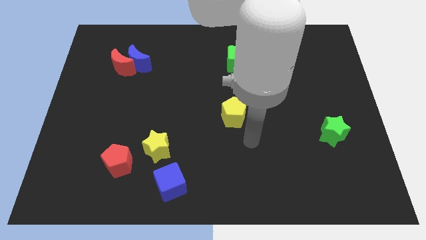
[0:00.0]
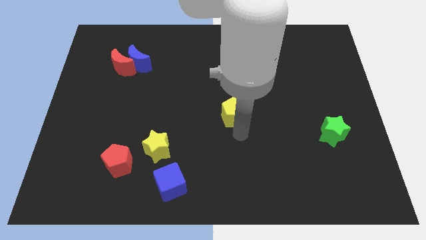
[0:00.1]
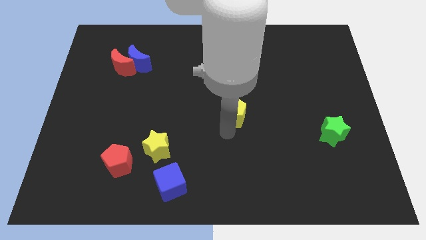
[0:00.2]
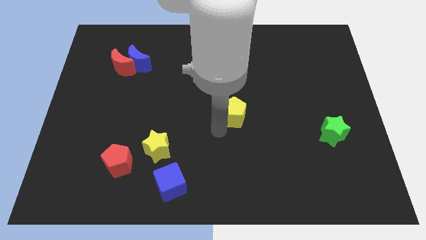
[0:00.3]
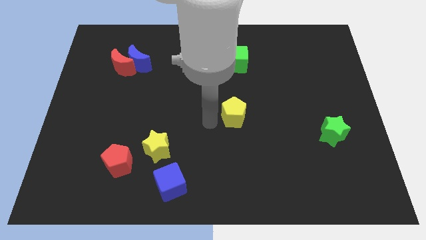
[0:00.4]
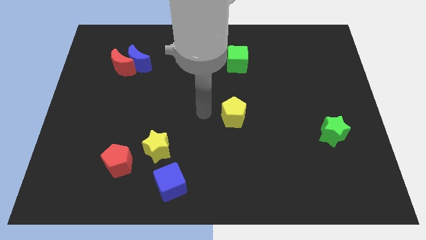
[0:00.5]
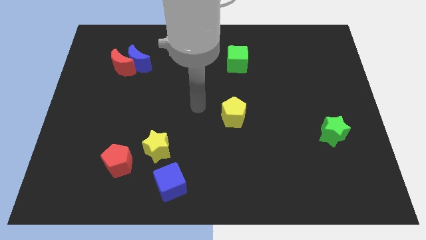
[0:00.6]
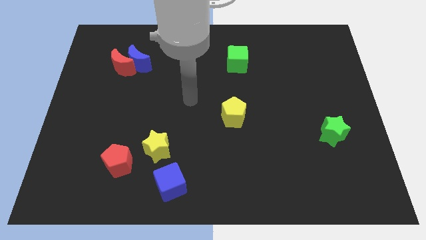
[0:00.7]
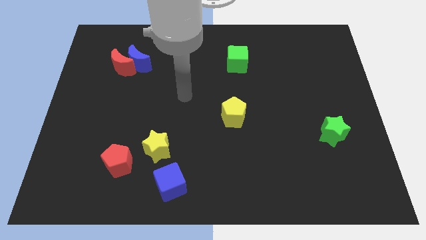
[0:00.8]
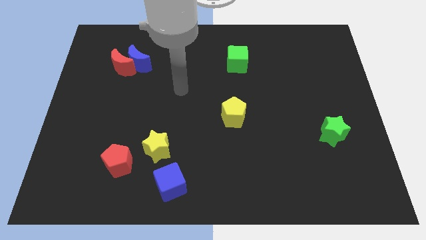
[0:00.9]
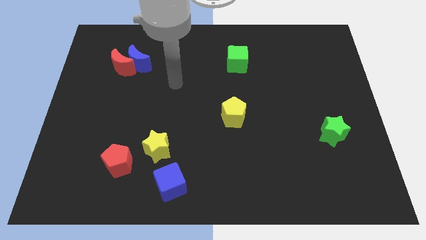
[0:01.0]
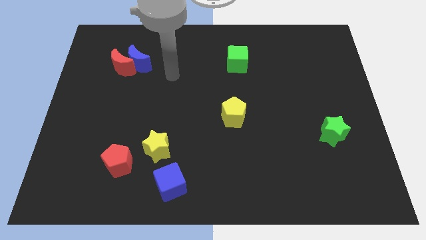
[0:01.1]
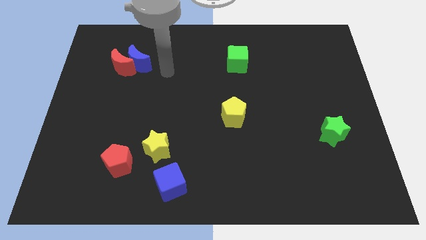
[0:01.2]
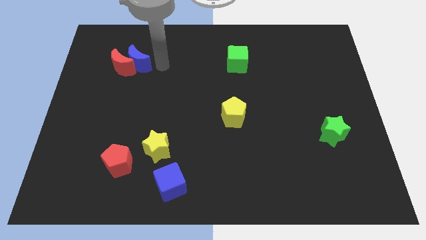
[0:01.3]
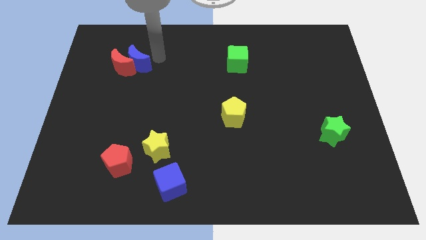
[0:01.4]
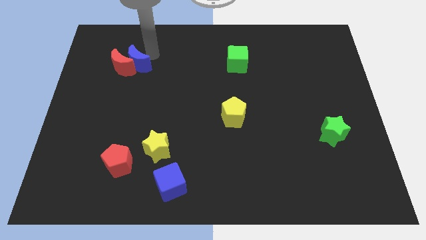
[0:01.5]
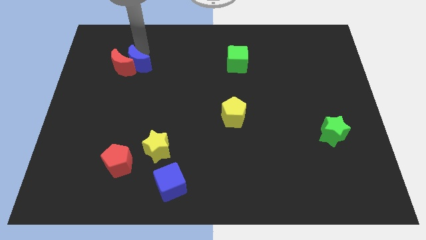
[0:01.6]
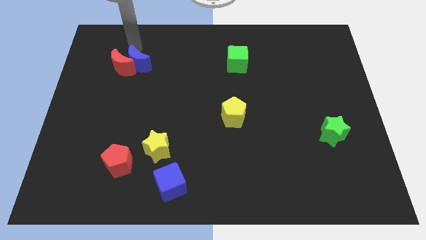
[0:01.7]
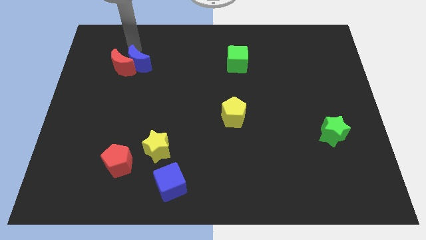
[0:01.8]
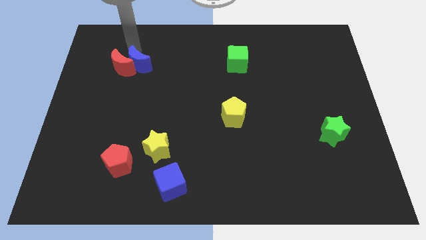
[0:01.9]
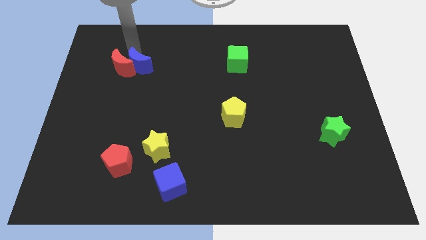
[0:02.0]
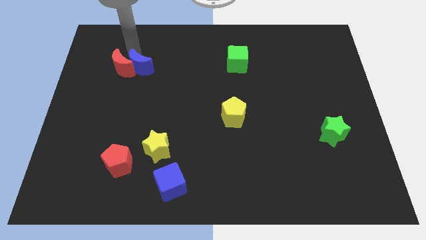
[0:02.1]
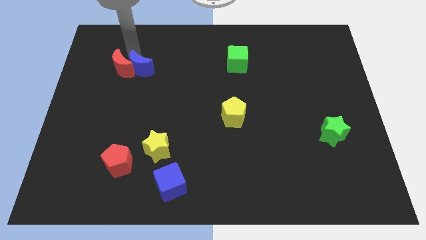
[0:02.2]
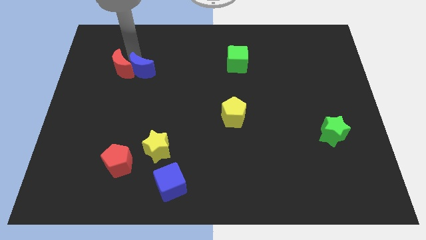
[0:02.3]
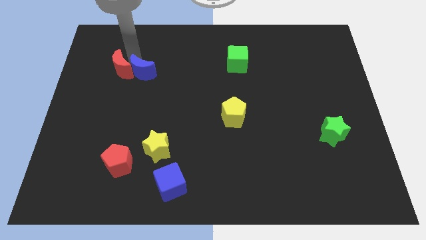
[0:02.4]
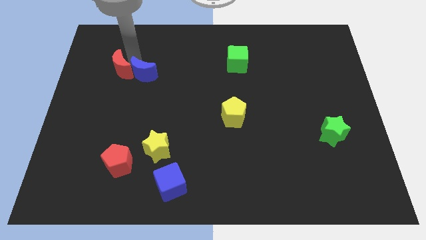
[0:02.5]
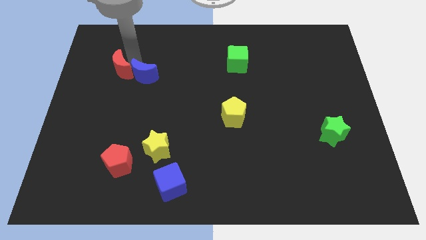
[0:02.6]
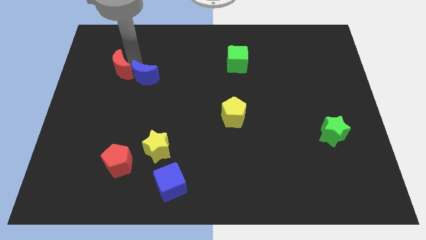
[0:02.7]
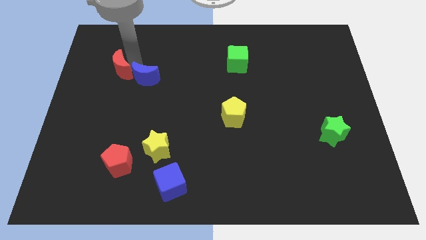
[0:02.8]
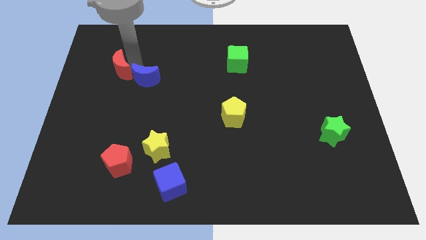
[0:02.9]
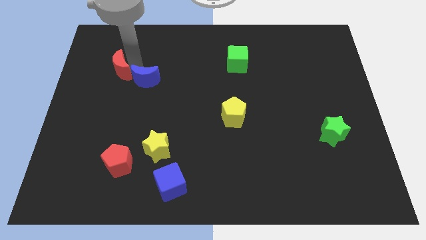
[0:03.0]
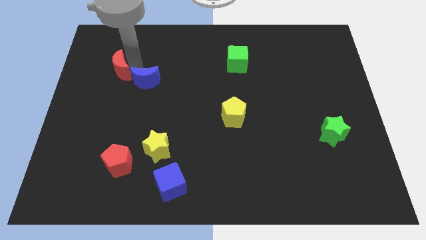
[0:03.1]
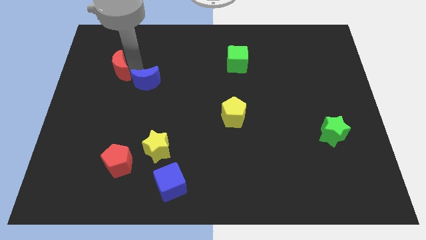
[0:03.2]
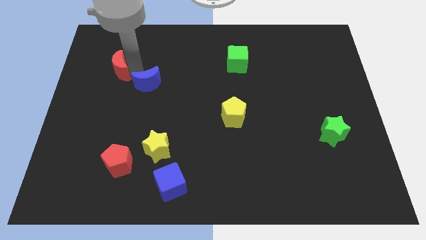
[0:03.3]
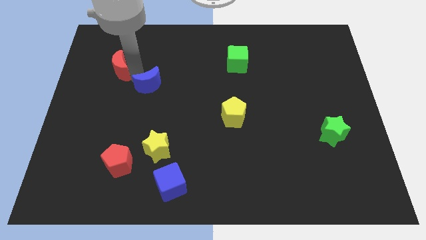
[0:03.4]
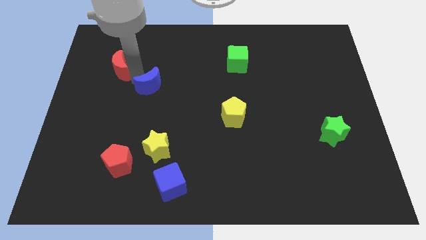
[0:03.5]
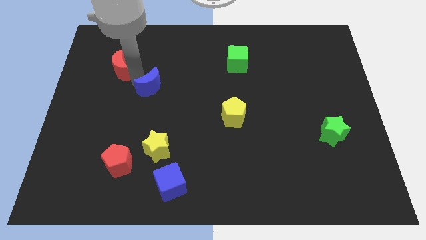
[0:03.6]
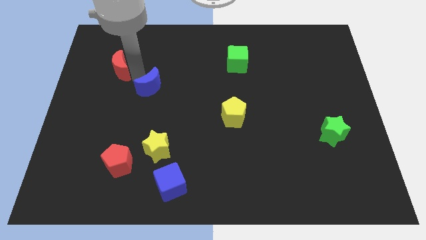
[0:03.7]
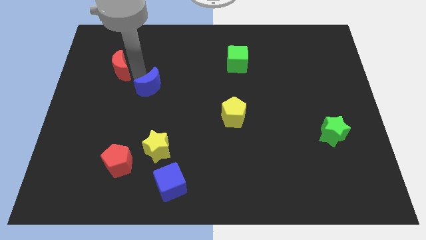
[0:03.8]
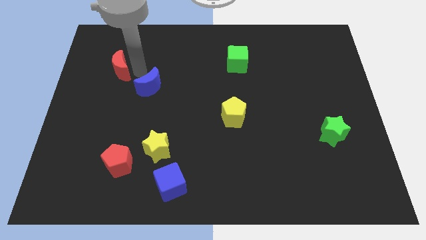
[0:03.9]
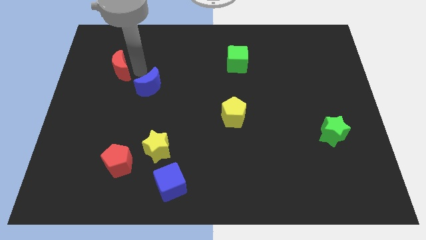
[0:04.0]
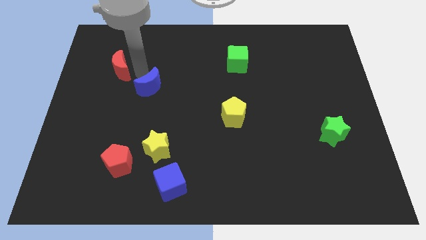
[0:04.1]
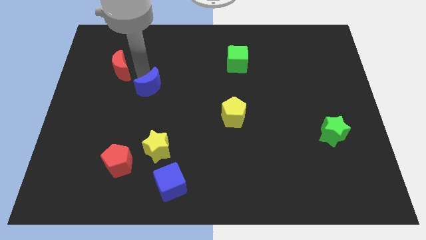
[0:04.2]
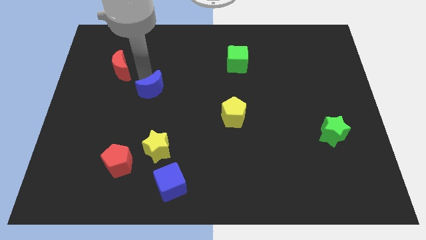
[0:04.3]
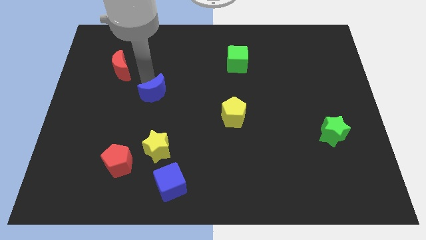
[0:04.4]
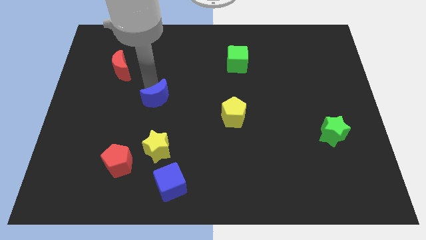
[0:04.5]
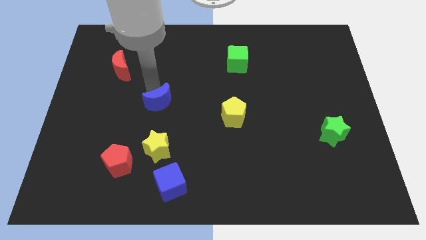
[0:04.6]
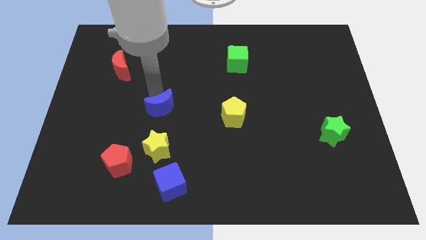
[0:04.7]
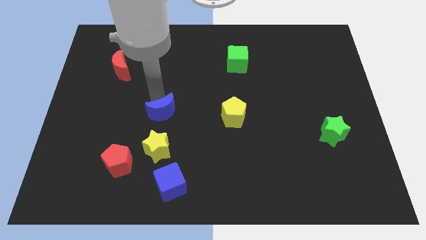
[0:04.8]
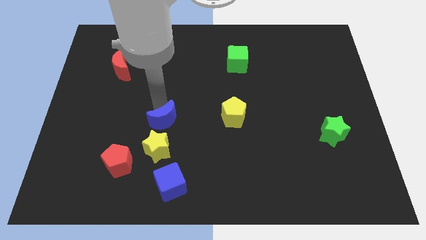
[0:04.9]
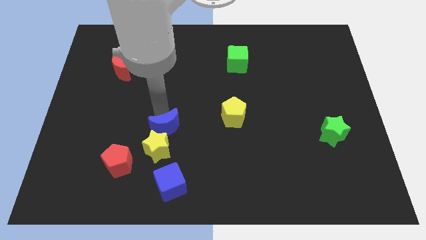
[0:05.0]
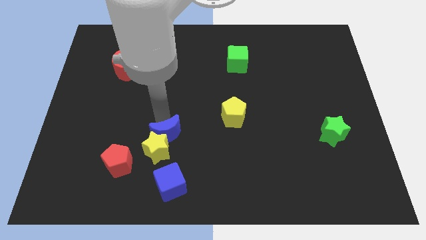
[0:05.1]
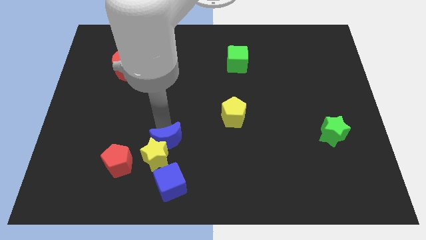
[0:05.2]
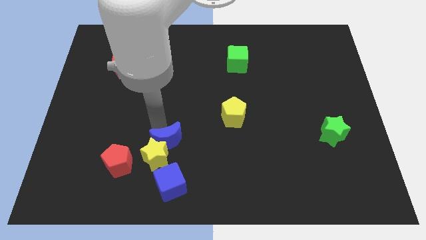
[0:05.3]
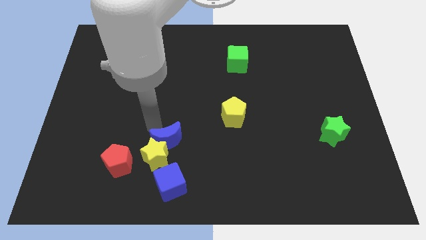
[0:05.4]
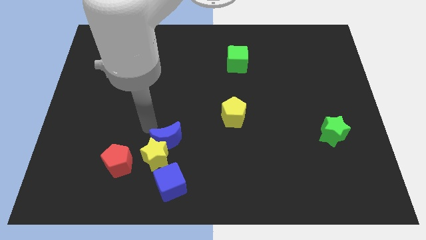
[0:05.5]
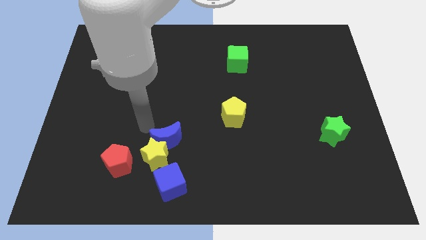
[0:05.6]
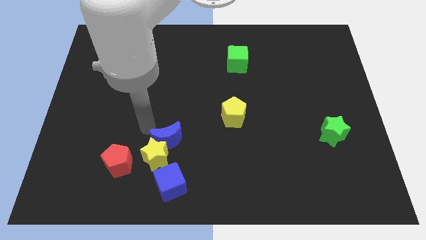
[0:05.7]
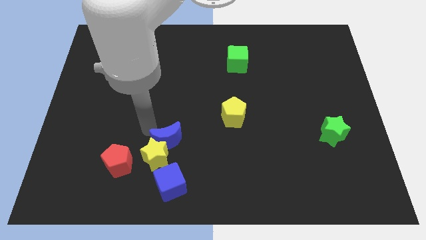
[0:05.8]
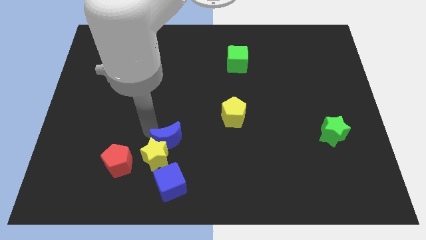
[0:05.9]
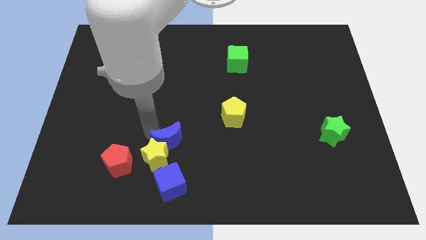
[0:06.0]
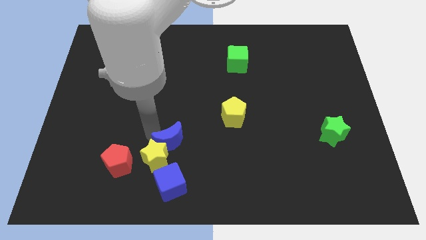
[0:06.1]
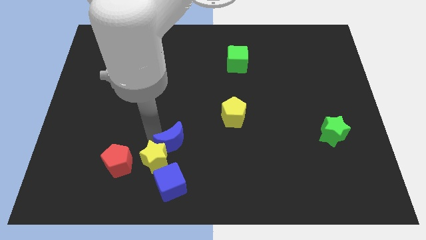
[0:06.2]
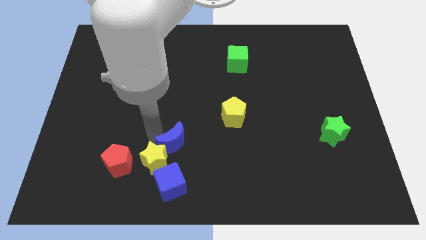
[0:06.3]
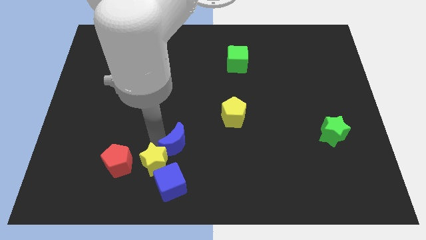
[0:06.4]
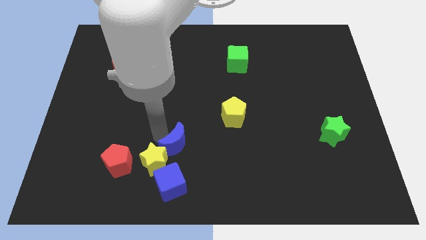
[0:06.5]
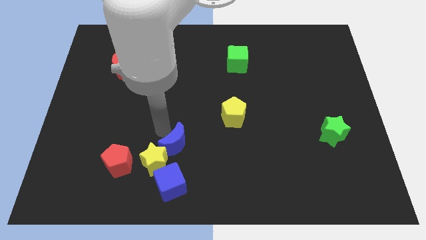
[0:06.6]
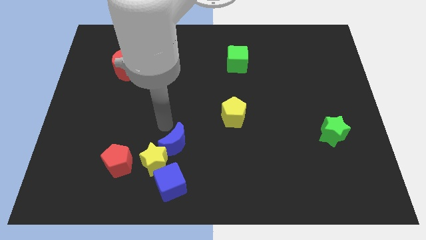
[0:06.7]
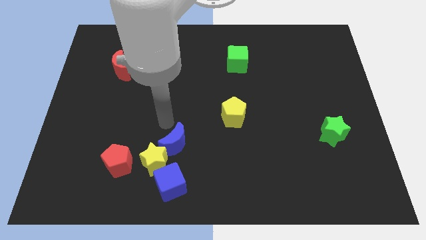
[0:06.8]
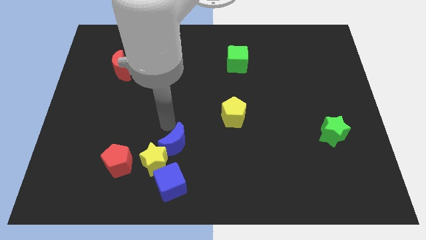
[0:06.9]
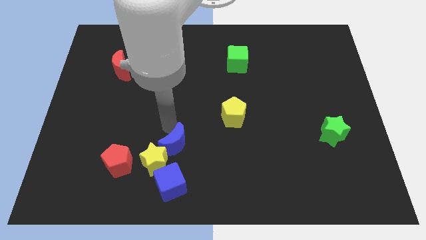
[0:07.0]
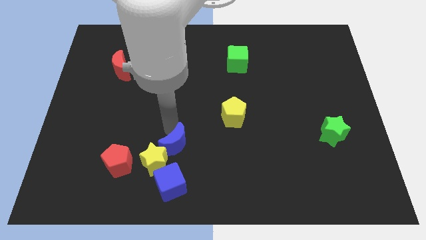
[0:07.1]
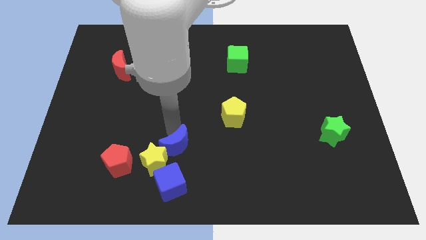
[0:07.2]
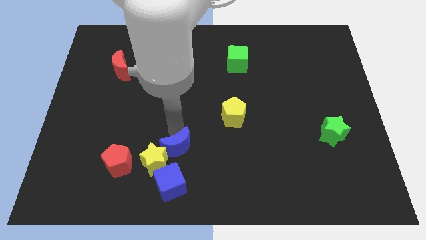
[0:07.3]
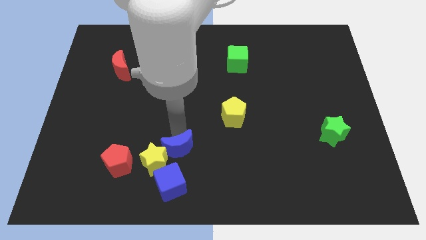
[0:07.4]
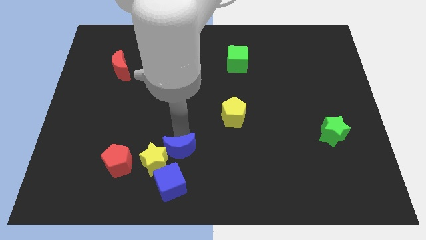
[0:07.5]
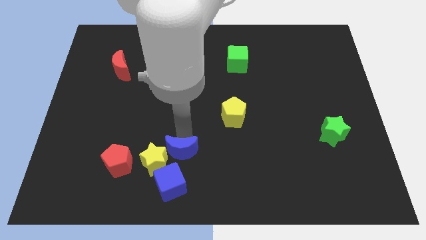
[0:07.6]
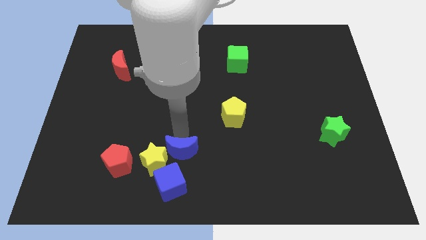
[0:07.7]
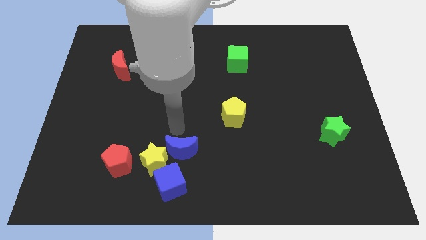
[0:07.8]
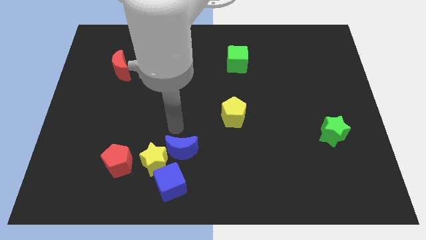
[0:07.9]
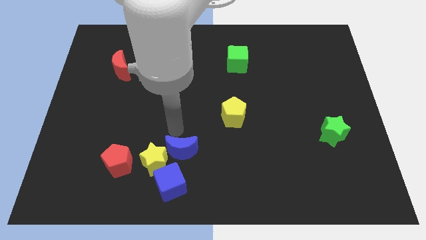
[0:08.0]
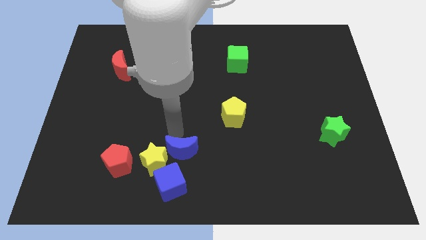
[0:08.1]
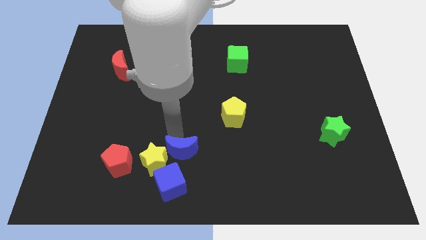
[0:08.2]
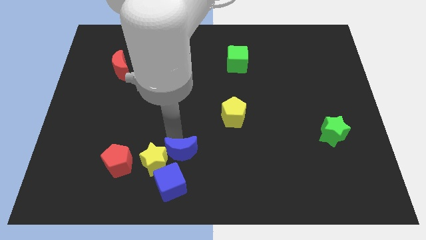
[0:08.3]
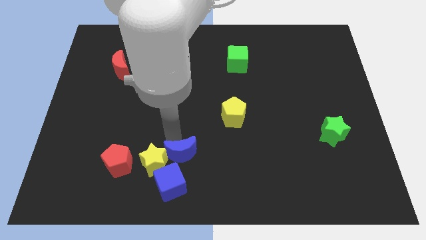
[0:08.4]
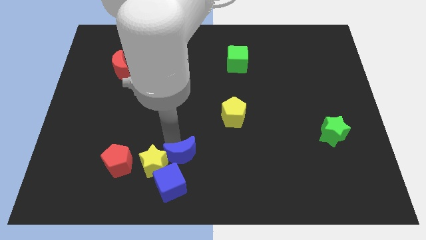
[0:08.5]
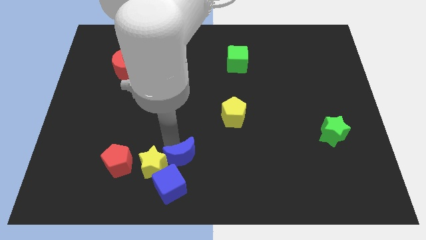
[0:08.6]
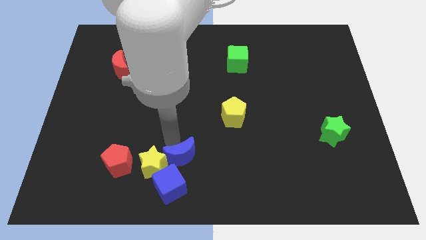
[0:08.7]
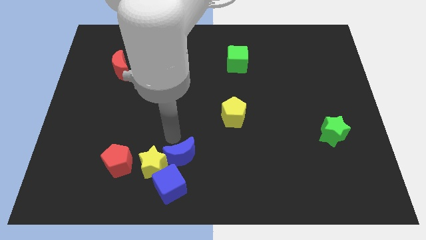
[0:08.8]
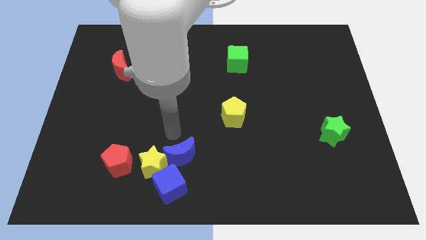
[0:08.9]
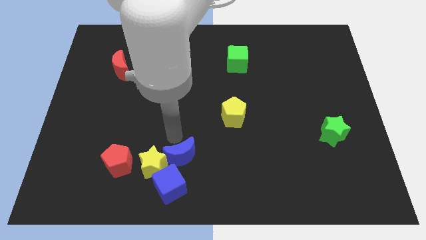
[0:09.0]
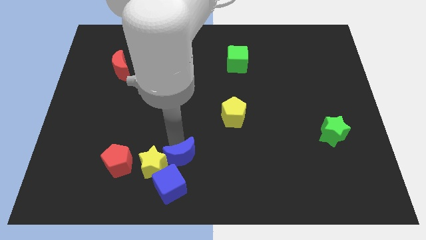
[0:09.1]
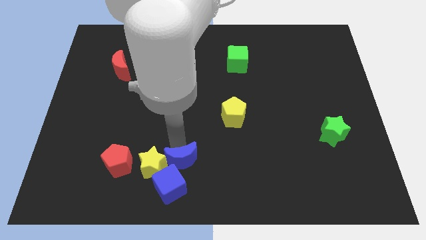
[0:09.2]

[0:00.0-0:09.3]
put the blue moon to the bottom side
